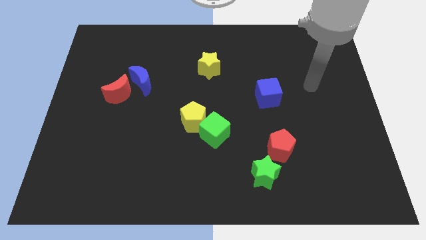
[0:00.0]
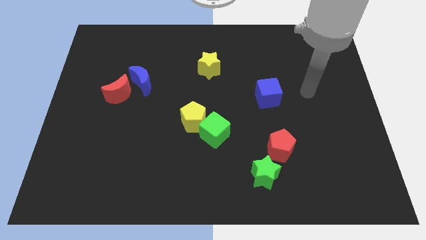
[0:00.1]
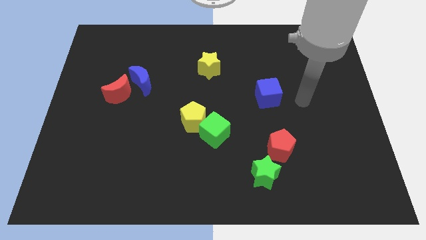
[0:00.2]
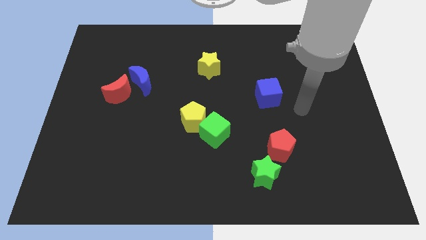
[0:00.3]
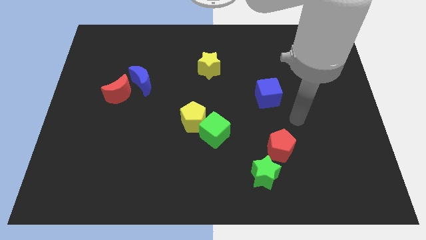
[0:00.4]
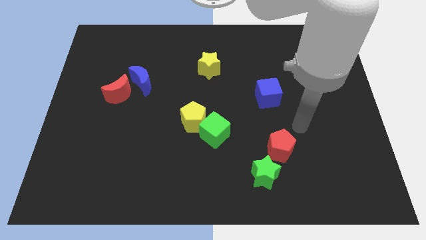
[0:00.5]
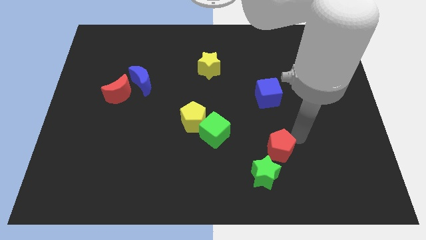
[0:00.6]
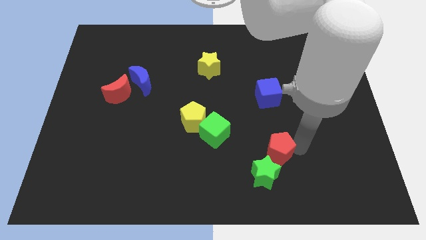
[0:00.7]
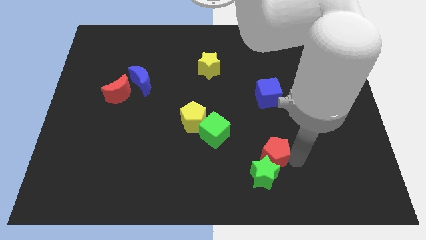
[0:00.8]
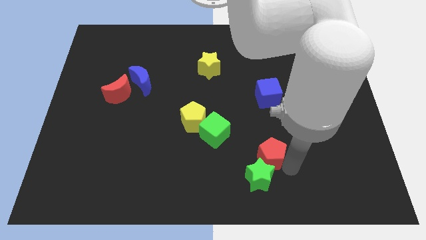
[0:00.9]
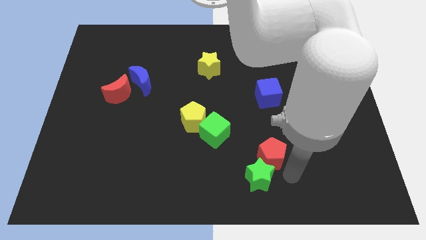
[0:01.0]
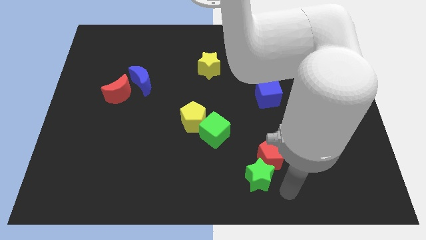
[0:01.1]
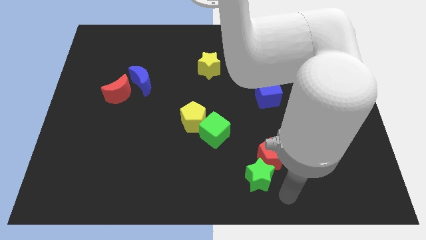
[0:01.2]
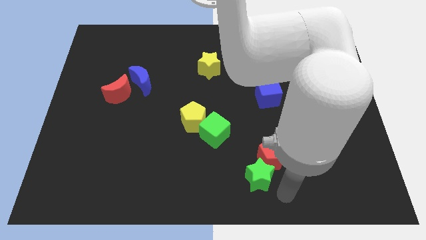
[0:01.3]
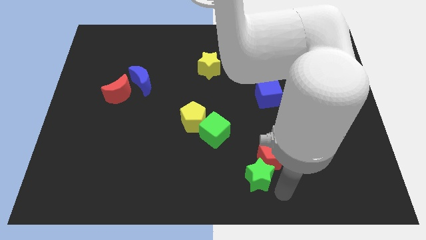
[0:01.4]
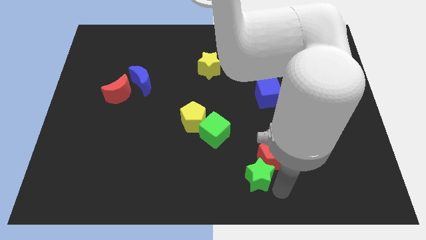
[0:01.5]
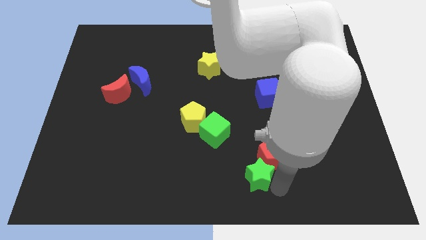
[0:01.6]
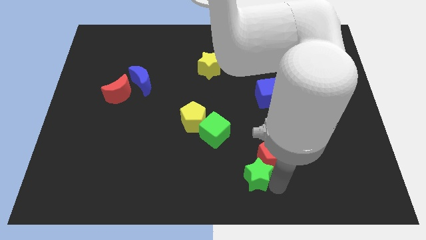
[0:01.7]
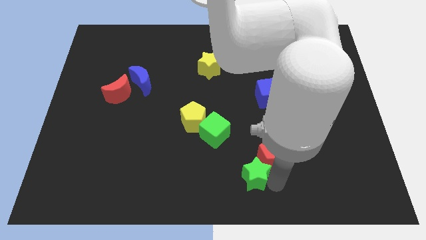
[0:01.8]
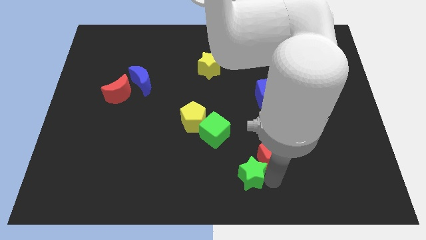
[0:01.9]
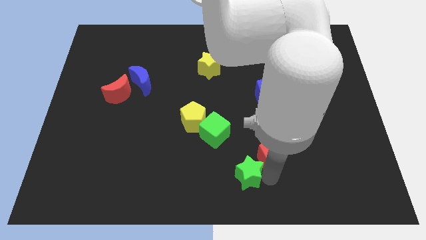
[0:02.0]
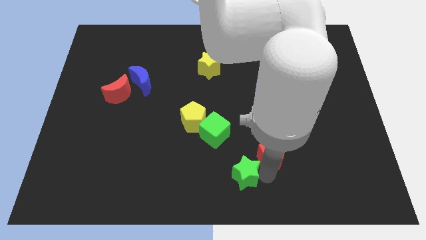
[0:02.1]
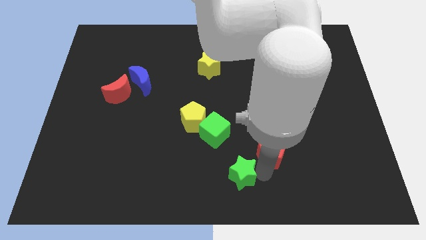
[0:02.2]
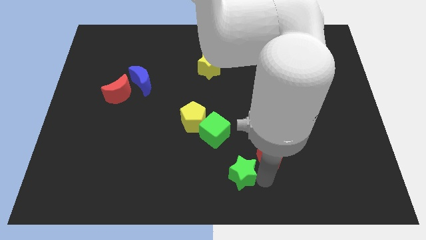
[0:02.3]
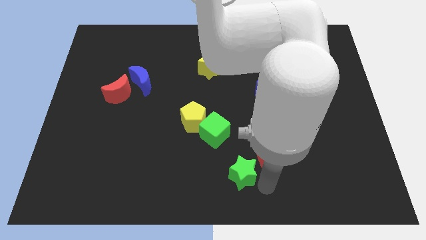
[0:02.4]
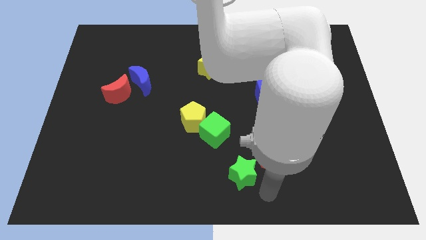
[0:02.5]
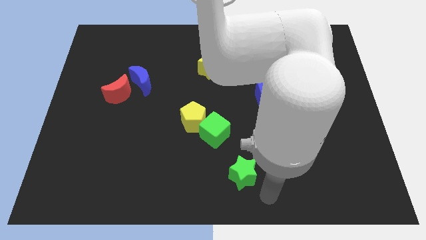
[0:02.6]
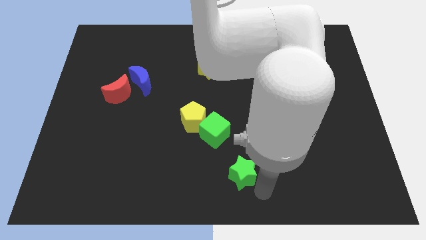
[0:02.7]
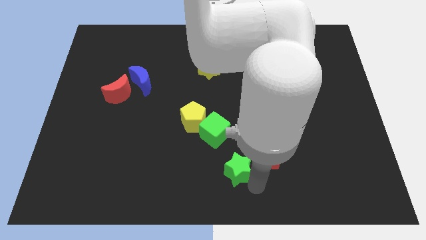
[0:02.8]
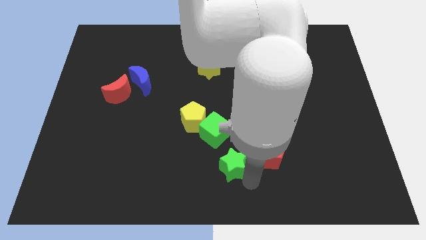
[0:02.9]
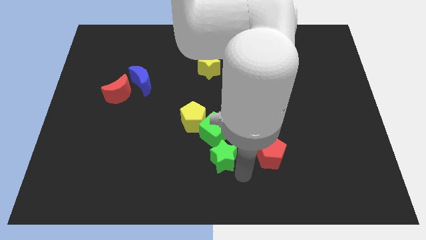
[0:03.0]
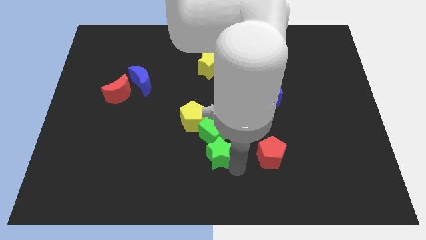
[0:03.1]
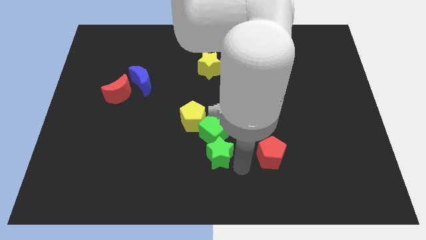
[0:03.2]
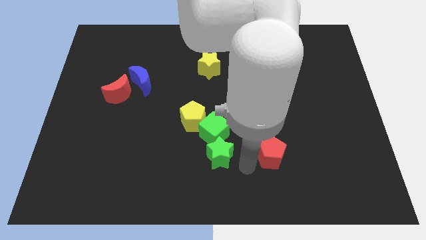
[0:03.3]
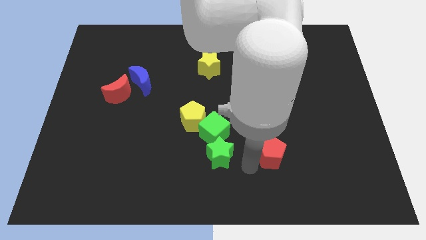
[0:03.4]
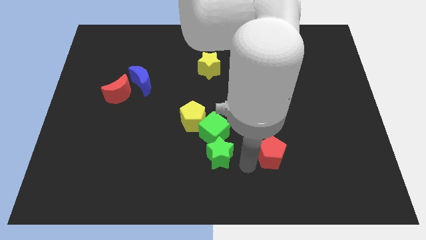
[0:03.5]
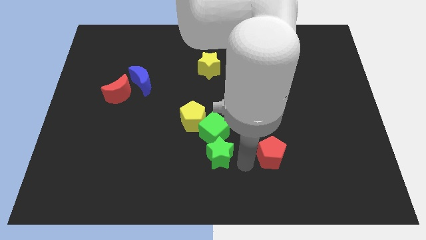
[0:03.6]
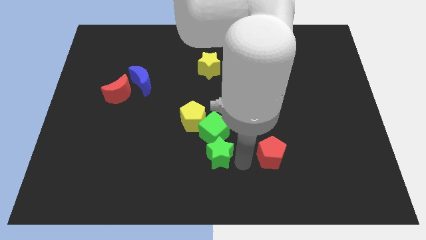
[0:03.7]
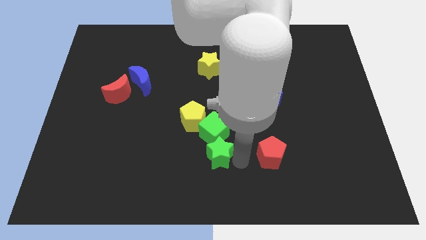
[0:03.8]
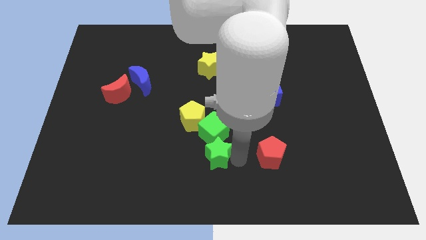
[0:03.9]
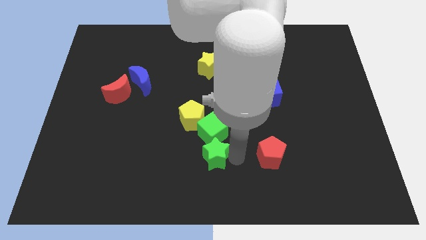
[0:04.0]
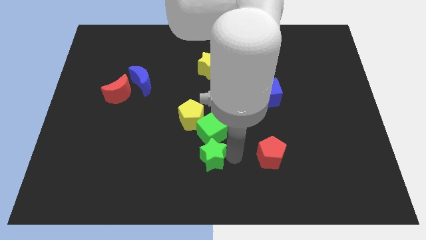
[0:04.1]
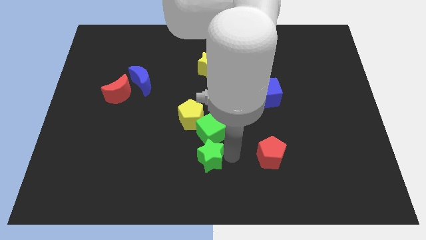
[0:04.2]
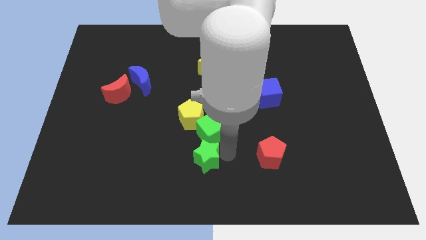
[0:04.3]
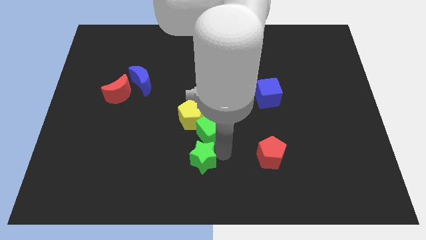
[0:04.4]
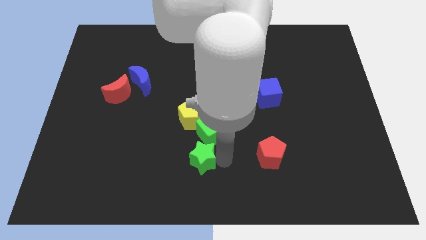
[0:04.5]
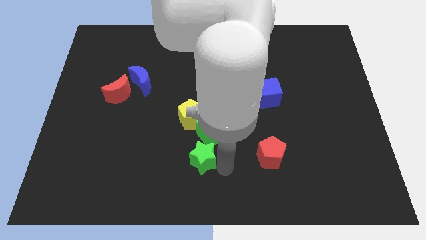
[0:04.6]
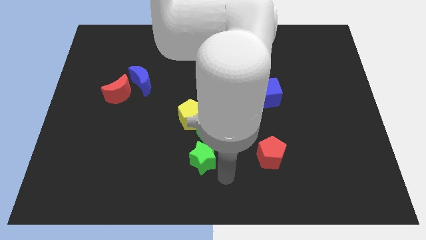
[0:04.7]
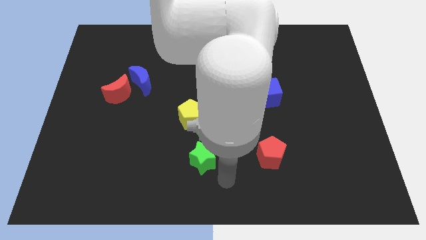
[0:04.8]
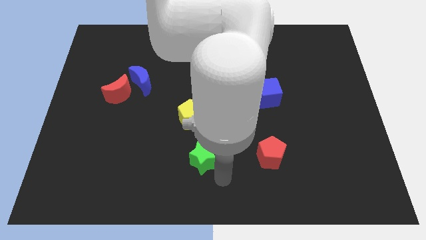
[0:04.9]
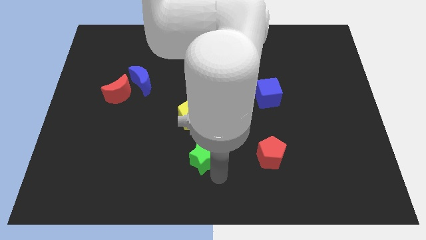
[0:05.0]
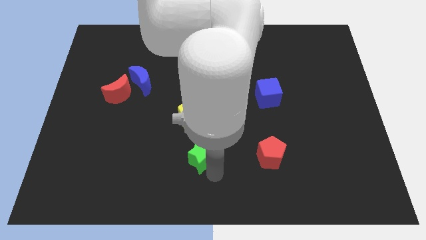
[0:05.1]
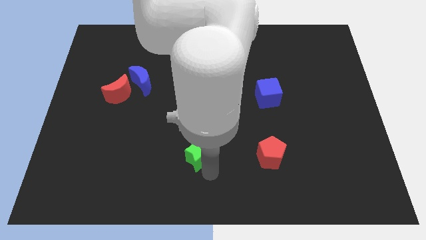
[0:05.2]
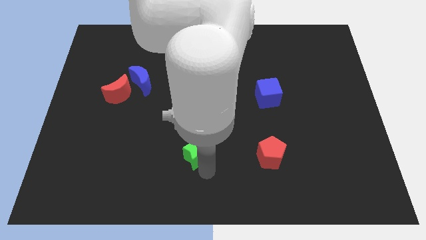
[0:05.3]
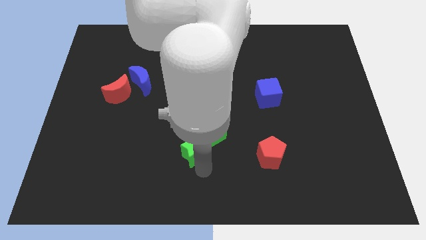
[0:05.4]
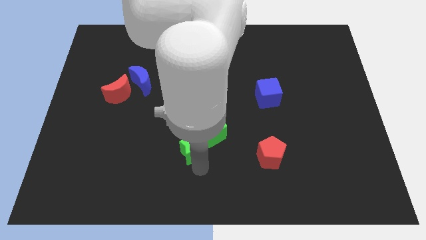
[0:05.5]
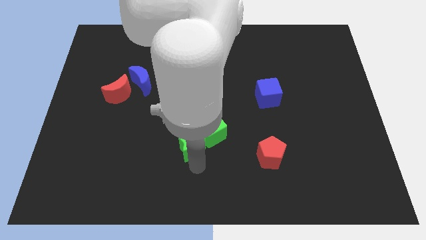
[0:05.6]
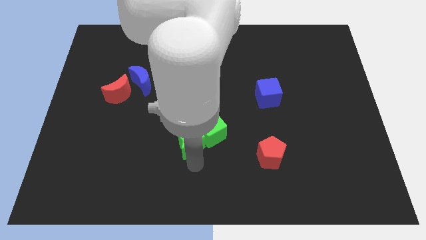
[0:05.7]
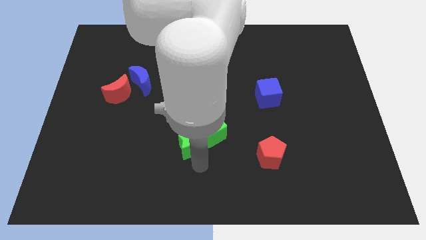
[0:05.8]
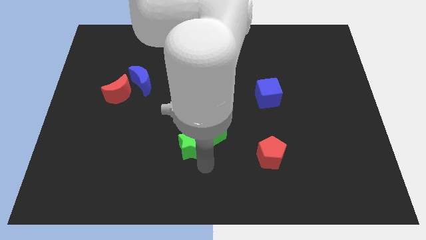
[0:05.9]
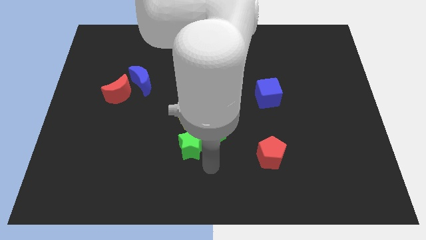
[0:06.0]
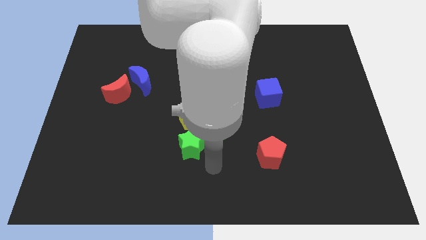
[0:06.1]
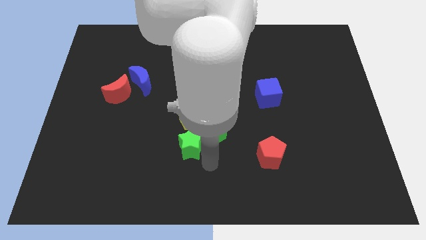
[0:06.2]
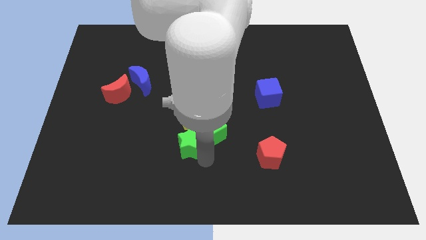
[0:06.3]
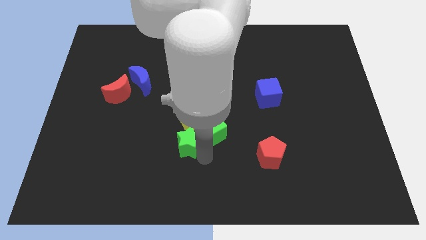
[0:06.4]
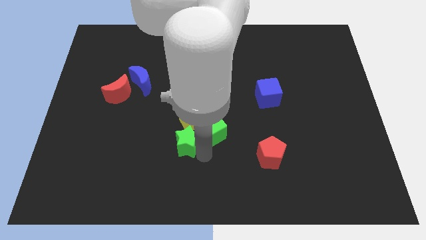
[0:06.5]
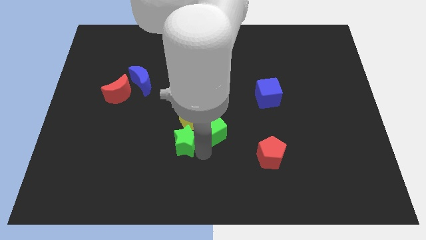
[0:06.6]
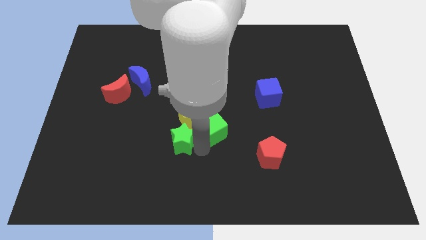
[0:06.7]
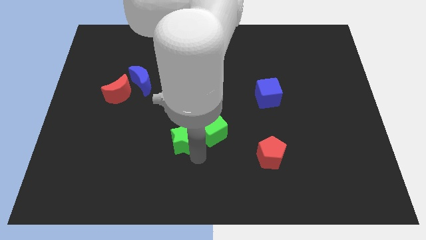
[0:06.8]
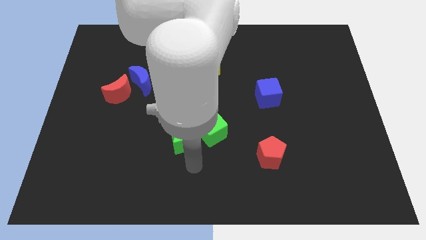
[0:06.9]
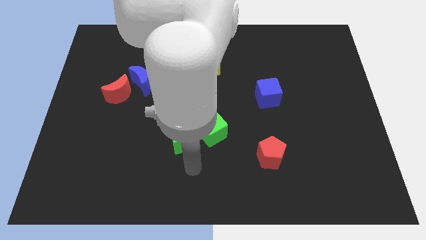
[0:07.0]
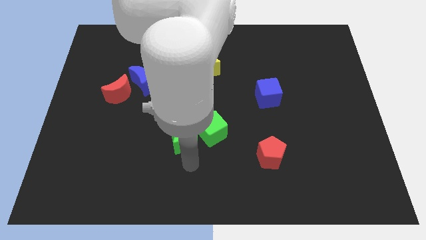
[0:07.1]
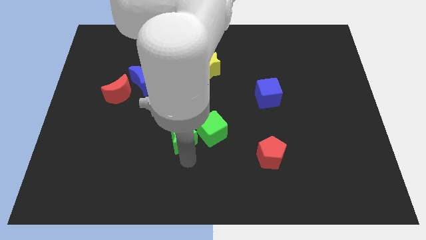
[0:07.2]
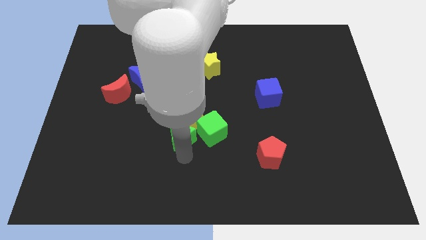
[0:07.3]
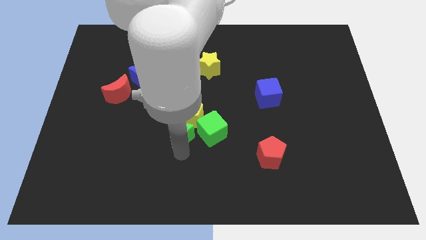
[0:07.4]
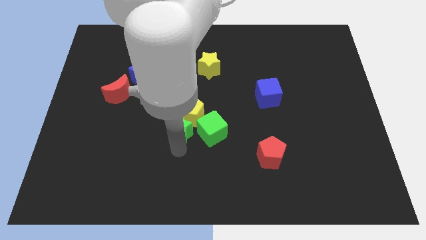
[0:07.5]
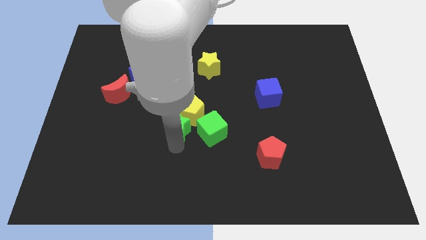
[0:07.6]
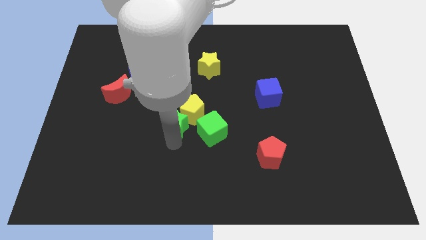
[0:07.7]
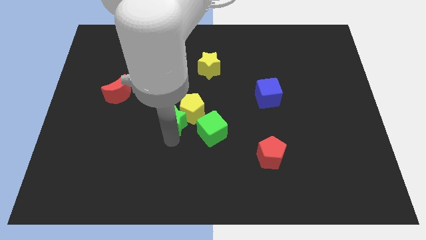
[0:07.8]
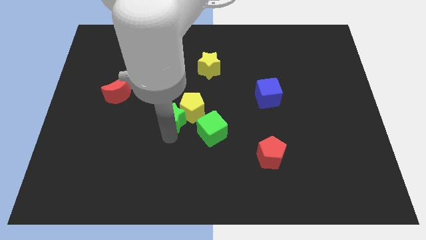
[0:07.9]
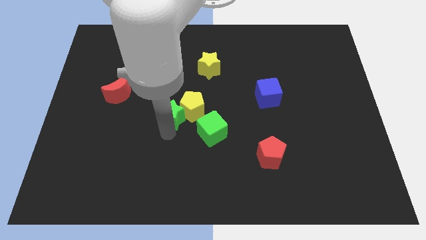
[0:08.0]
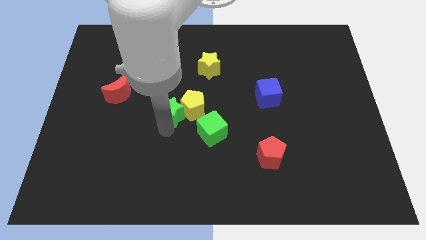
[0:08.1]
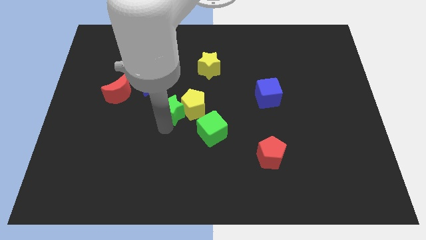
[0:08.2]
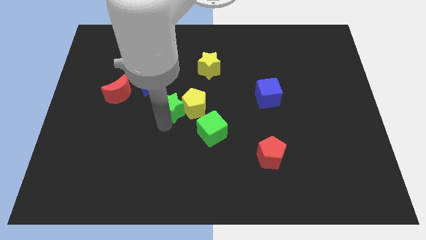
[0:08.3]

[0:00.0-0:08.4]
push the green star to the top left of the yellow pentagon
